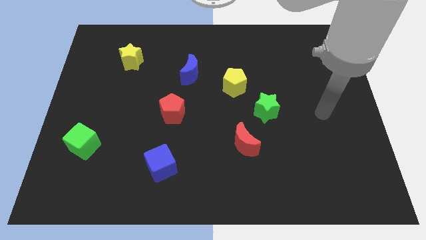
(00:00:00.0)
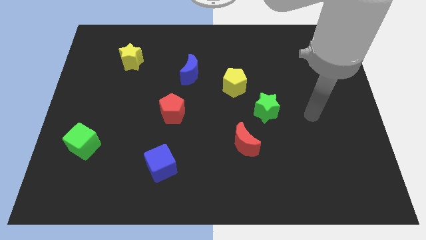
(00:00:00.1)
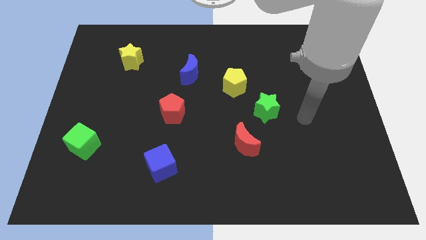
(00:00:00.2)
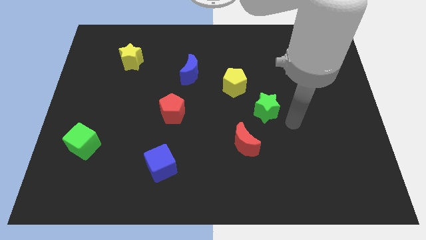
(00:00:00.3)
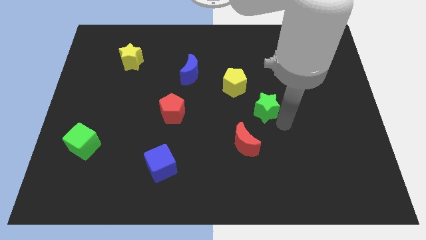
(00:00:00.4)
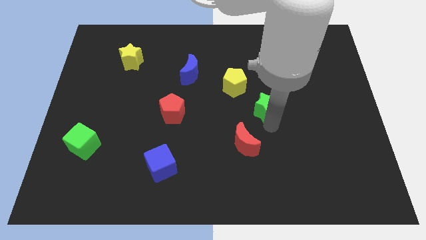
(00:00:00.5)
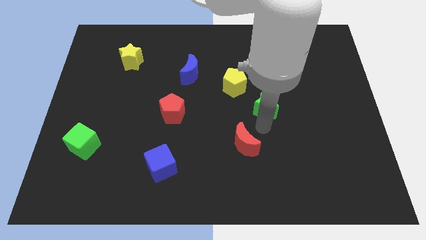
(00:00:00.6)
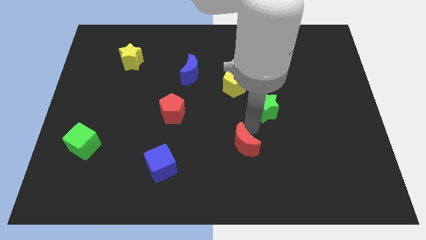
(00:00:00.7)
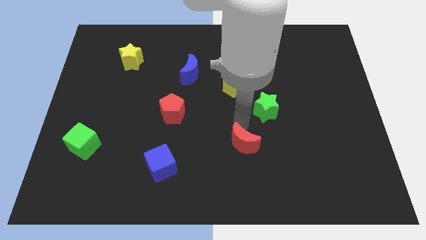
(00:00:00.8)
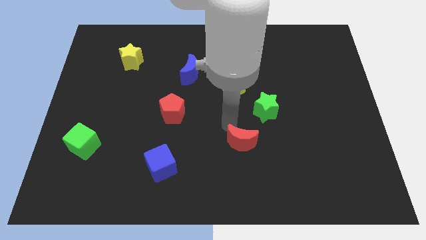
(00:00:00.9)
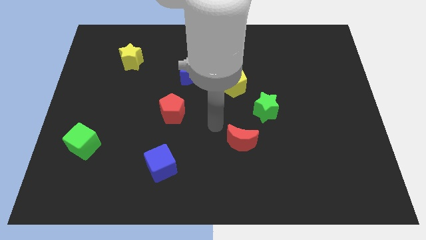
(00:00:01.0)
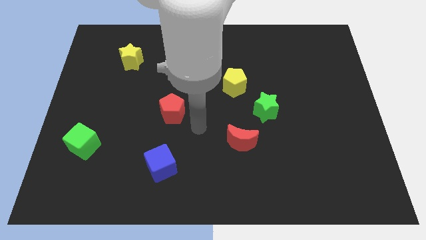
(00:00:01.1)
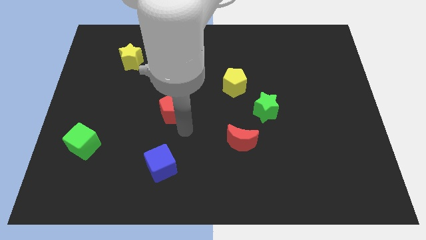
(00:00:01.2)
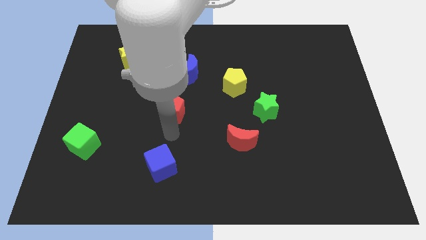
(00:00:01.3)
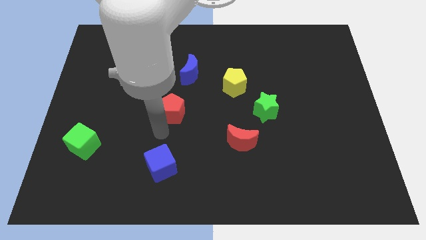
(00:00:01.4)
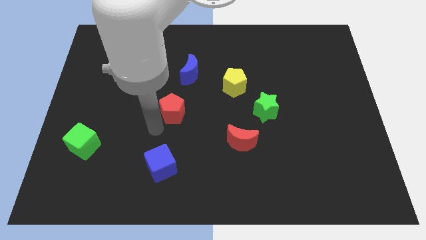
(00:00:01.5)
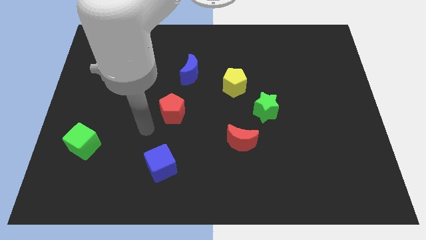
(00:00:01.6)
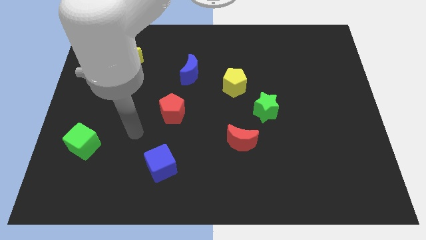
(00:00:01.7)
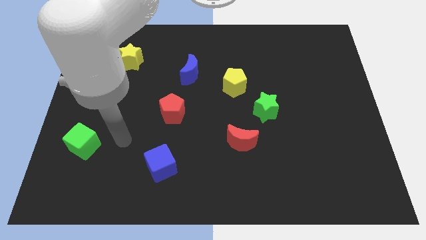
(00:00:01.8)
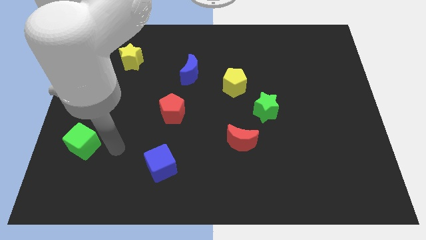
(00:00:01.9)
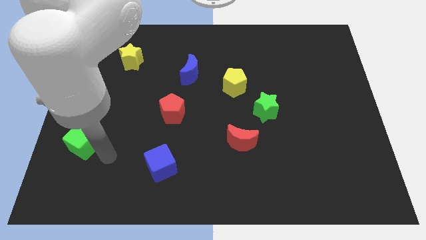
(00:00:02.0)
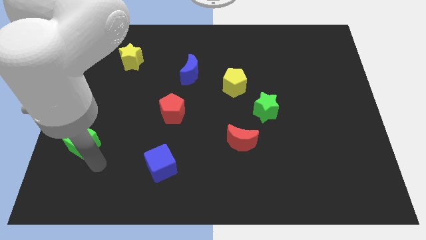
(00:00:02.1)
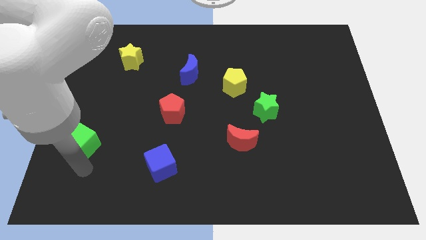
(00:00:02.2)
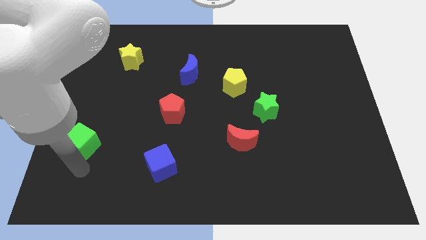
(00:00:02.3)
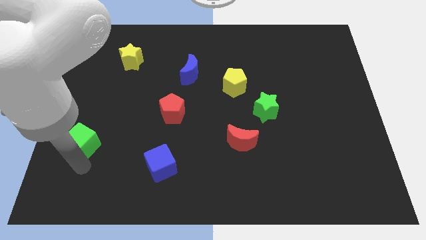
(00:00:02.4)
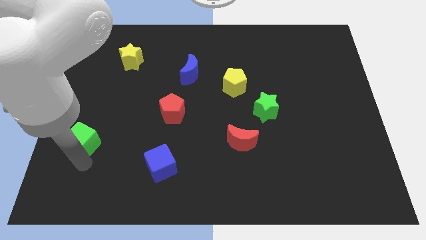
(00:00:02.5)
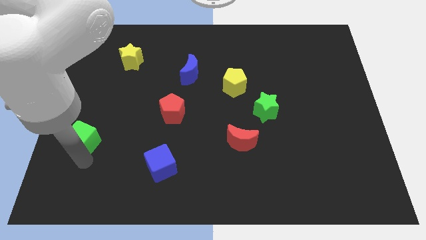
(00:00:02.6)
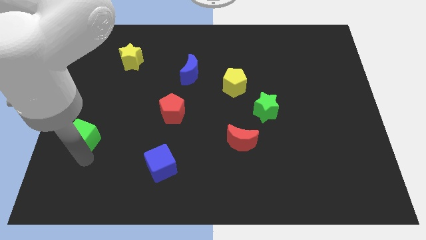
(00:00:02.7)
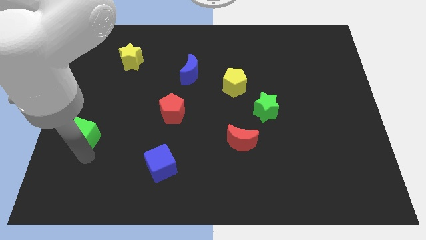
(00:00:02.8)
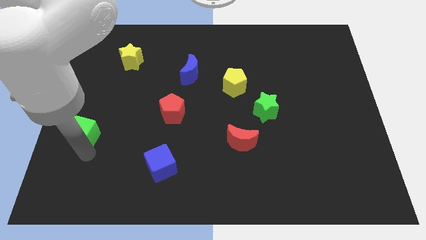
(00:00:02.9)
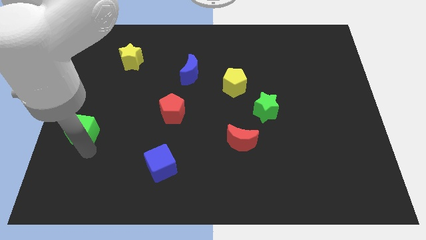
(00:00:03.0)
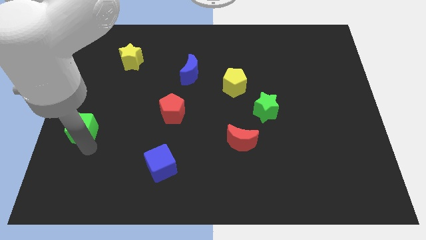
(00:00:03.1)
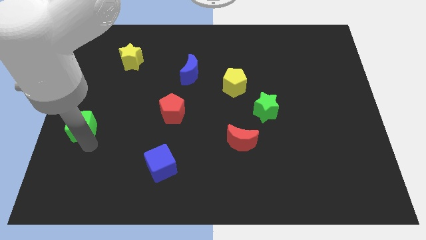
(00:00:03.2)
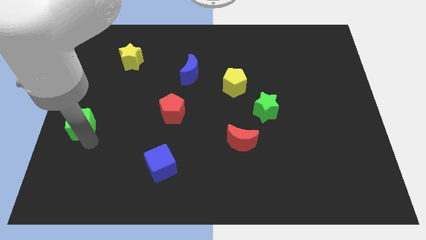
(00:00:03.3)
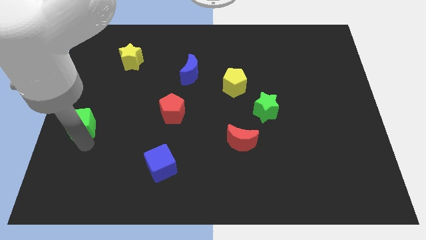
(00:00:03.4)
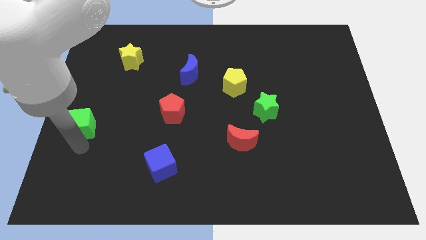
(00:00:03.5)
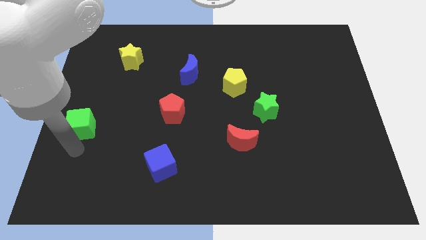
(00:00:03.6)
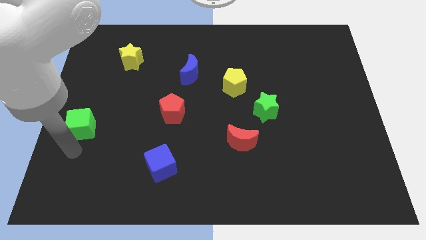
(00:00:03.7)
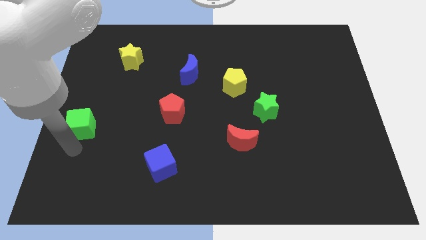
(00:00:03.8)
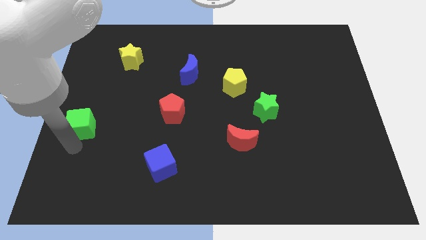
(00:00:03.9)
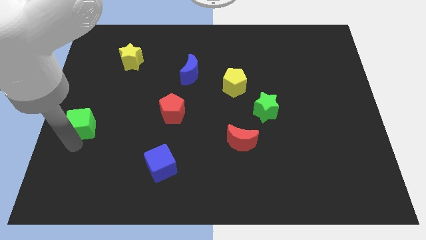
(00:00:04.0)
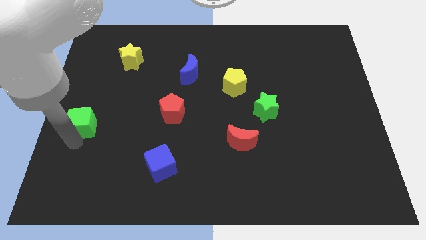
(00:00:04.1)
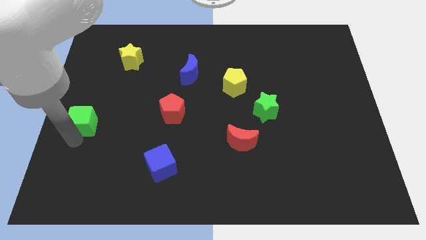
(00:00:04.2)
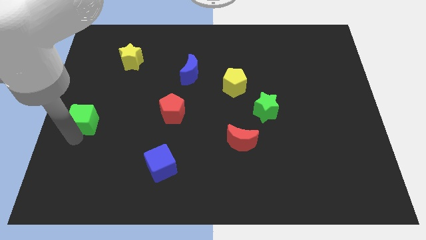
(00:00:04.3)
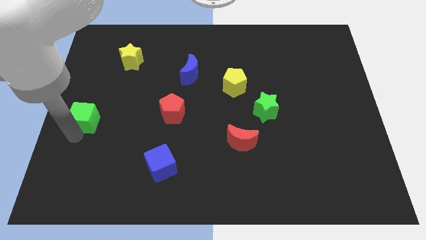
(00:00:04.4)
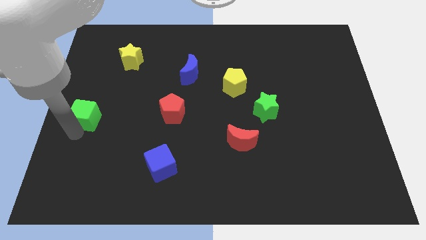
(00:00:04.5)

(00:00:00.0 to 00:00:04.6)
push the green cube up somewhat

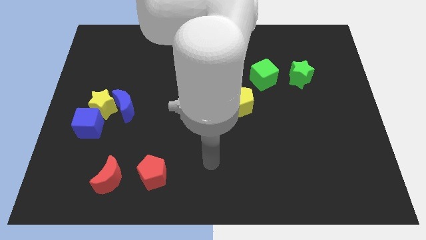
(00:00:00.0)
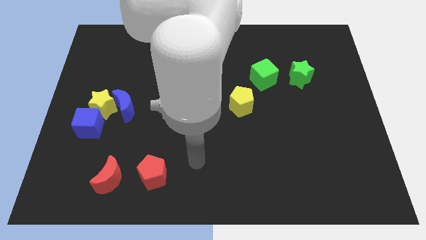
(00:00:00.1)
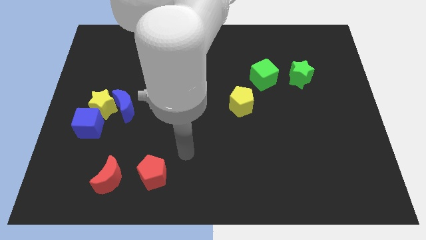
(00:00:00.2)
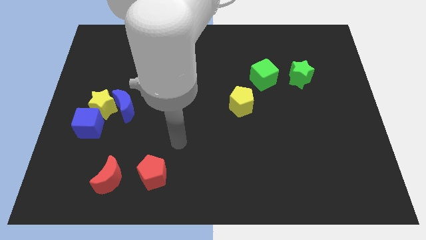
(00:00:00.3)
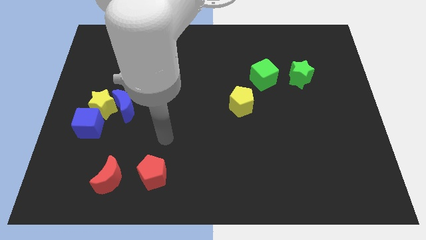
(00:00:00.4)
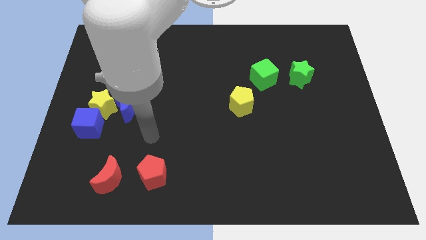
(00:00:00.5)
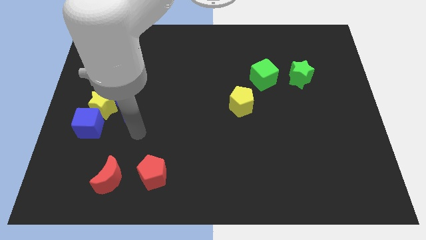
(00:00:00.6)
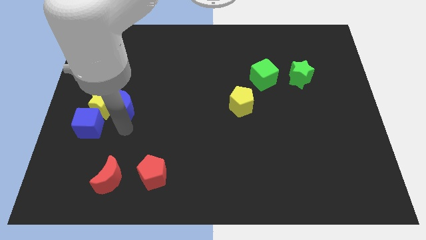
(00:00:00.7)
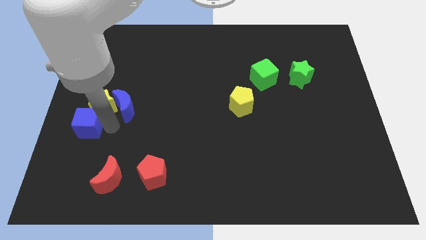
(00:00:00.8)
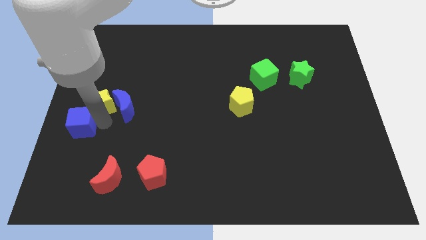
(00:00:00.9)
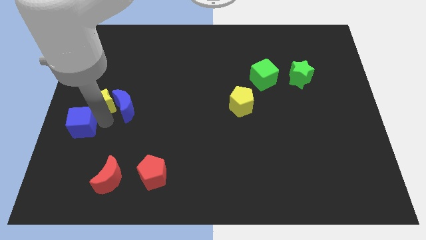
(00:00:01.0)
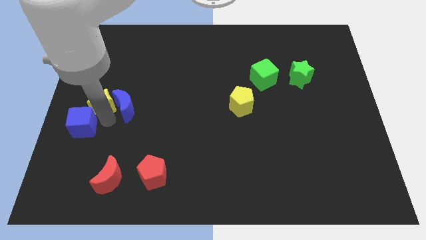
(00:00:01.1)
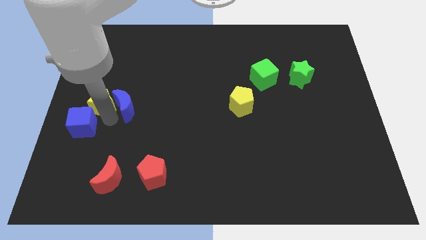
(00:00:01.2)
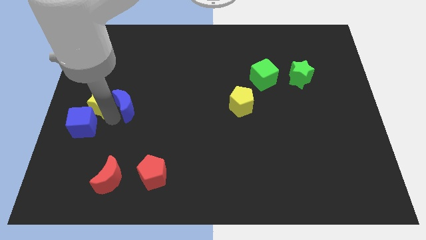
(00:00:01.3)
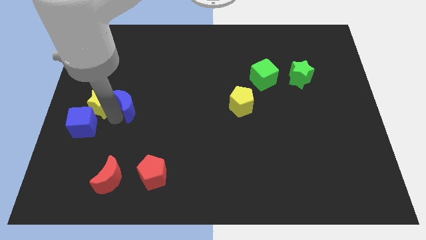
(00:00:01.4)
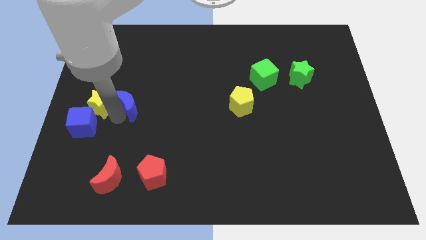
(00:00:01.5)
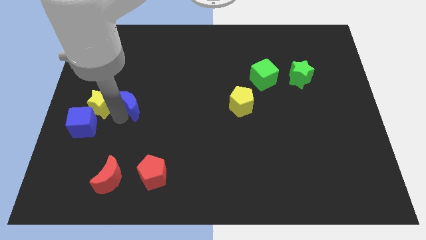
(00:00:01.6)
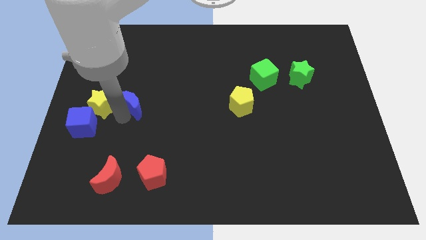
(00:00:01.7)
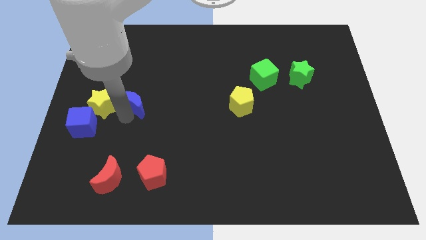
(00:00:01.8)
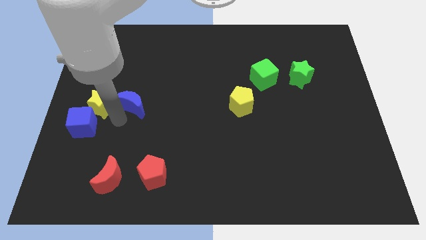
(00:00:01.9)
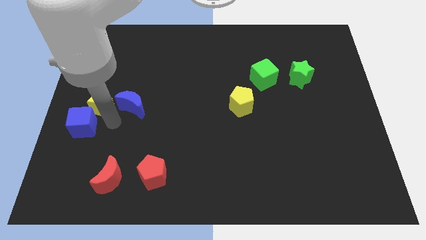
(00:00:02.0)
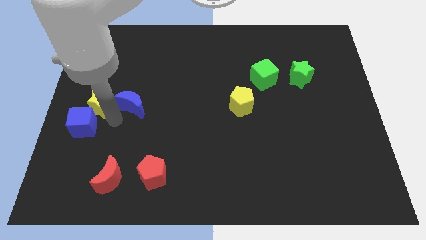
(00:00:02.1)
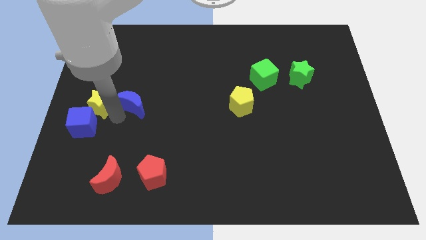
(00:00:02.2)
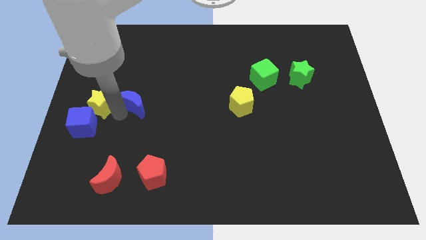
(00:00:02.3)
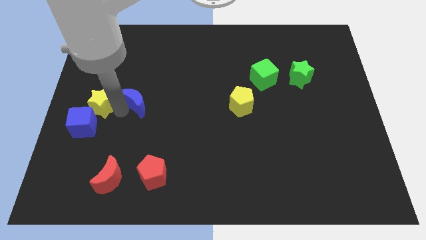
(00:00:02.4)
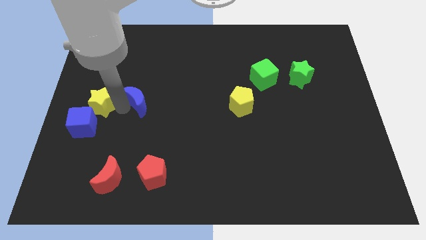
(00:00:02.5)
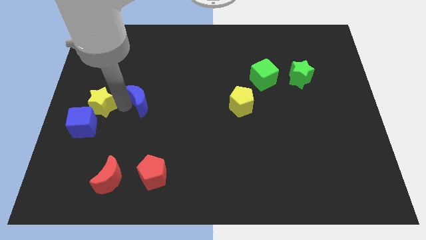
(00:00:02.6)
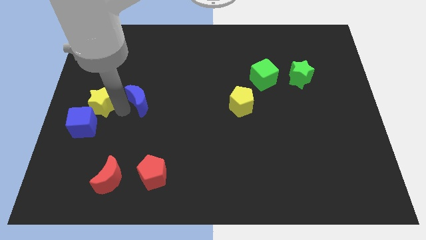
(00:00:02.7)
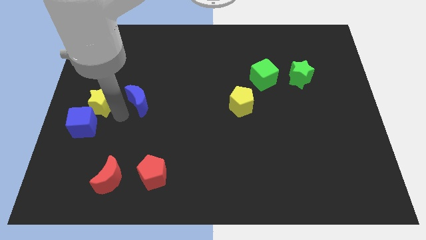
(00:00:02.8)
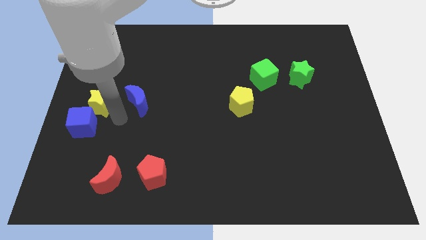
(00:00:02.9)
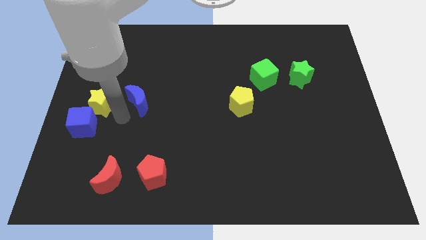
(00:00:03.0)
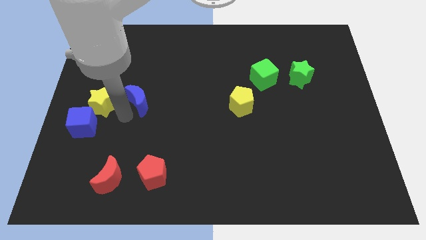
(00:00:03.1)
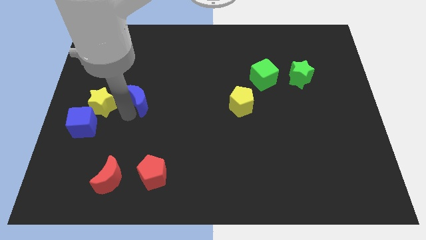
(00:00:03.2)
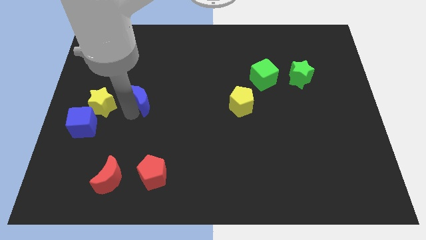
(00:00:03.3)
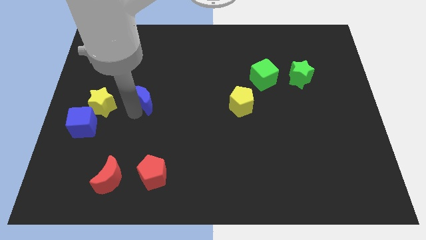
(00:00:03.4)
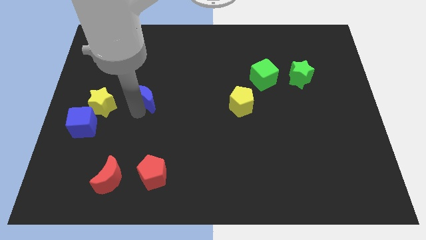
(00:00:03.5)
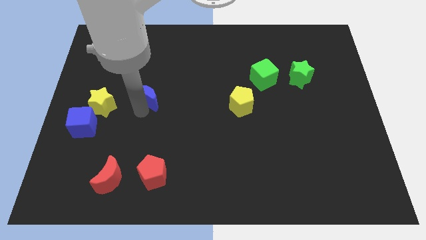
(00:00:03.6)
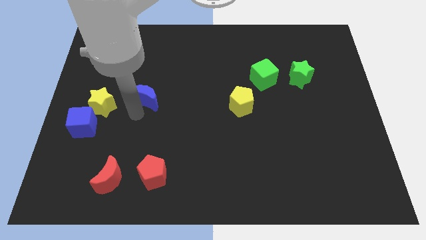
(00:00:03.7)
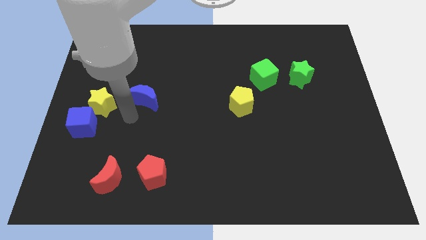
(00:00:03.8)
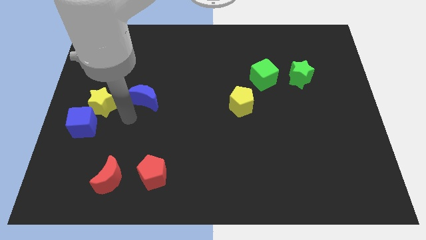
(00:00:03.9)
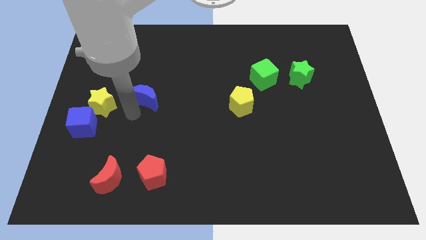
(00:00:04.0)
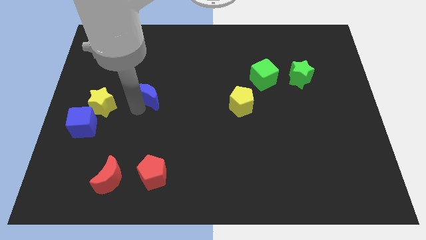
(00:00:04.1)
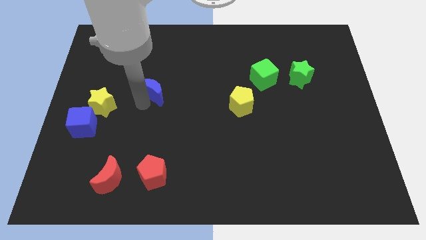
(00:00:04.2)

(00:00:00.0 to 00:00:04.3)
slide the blue moon up and right a bit
